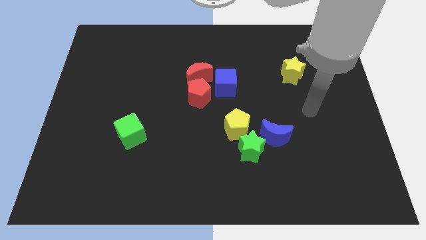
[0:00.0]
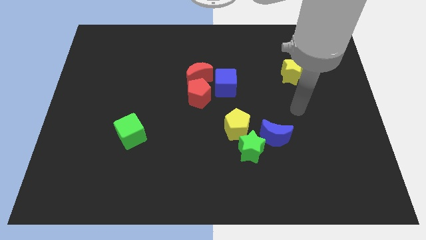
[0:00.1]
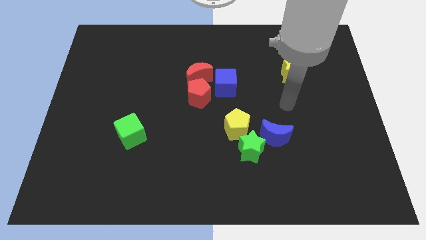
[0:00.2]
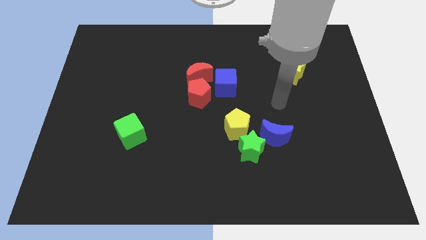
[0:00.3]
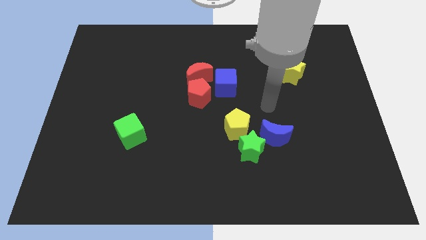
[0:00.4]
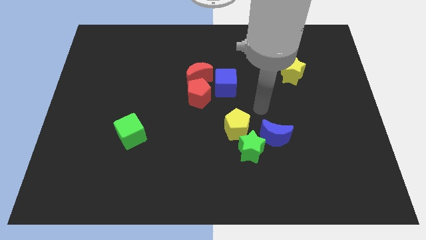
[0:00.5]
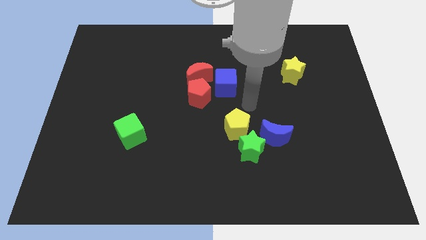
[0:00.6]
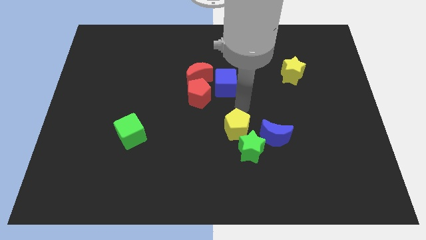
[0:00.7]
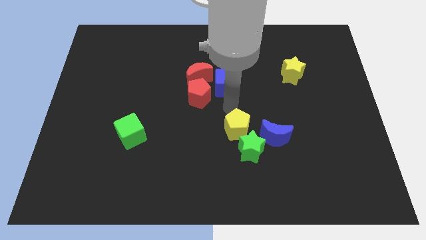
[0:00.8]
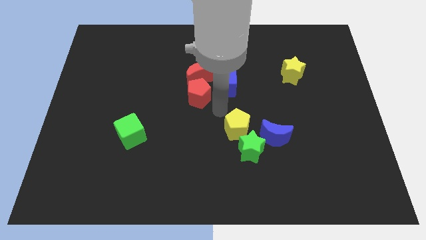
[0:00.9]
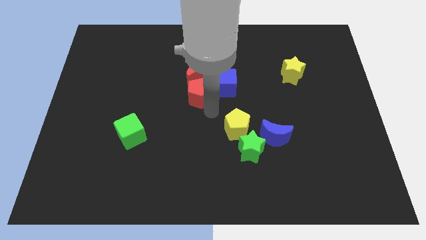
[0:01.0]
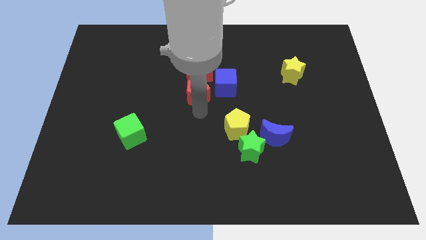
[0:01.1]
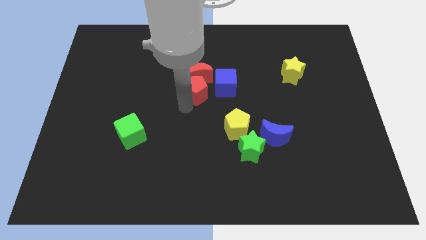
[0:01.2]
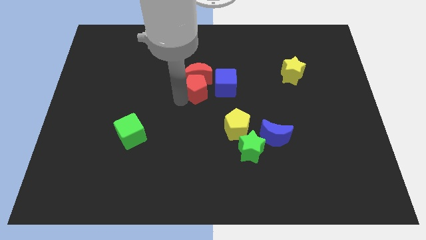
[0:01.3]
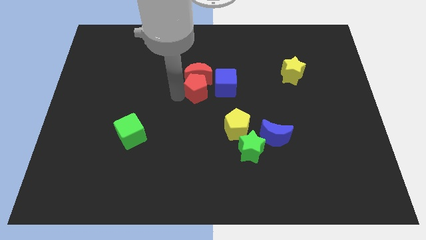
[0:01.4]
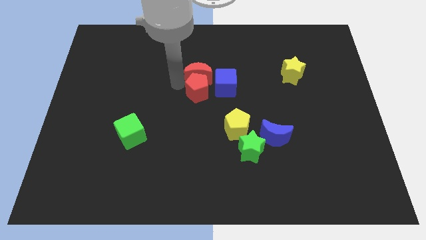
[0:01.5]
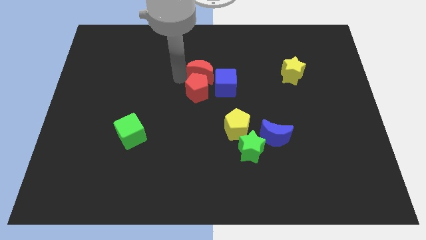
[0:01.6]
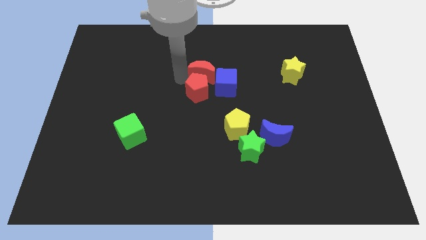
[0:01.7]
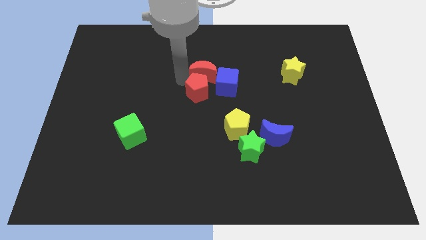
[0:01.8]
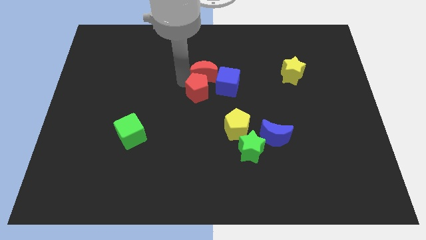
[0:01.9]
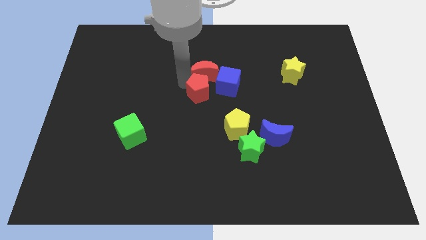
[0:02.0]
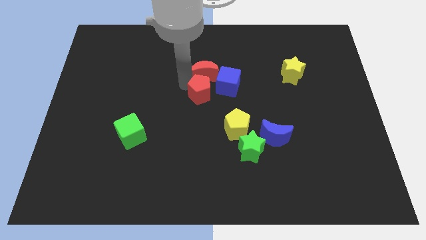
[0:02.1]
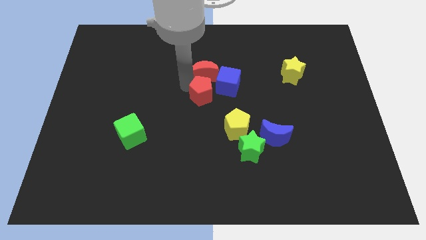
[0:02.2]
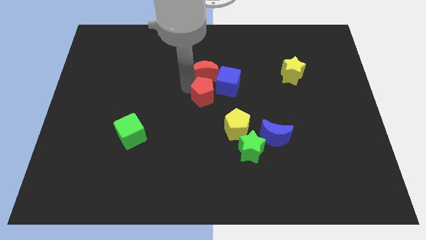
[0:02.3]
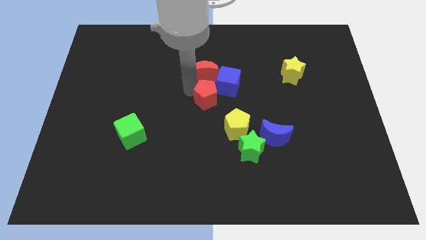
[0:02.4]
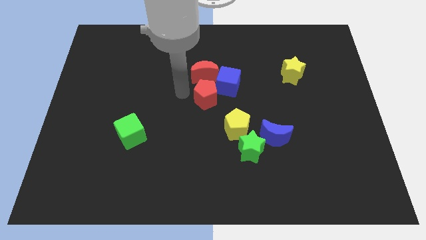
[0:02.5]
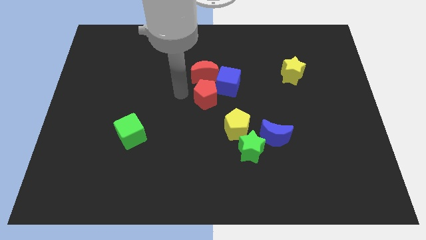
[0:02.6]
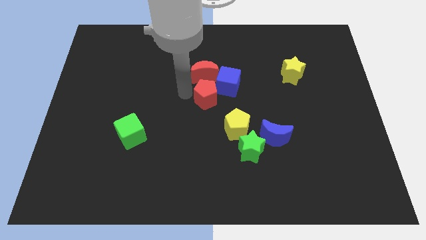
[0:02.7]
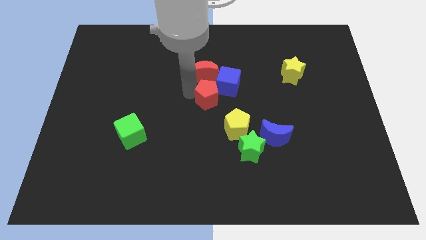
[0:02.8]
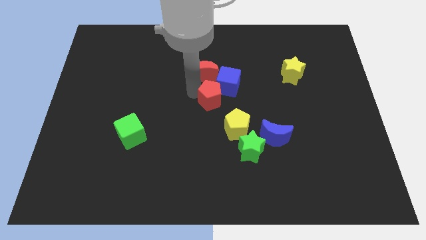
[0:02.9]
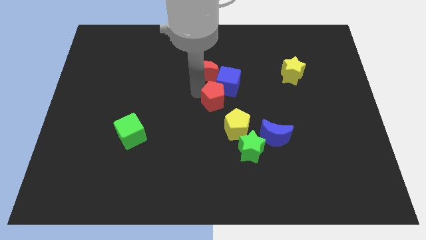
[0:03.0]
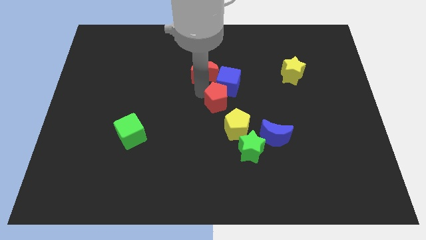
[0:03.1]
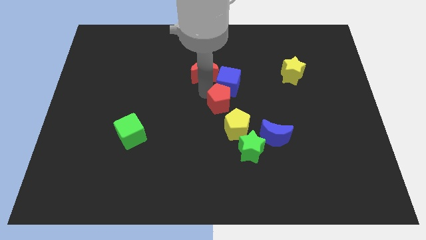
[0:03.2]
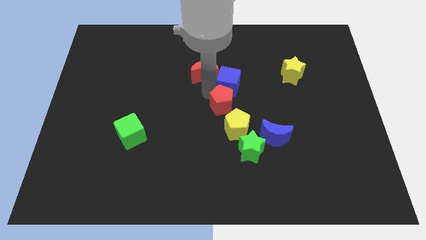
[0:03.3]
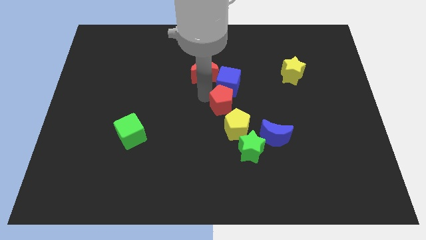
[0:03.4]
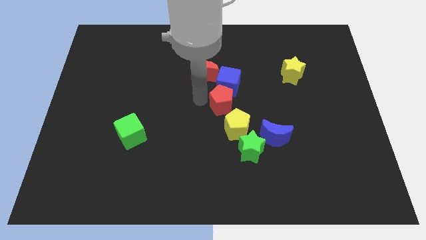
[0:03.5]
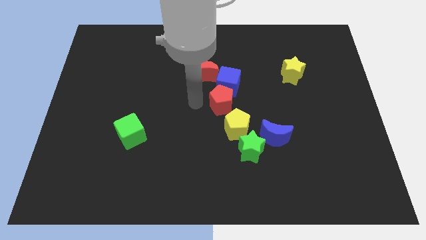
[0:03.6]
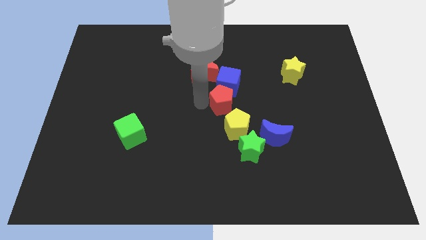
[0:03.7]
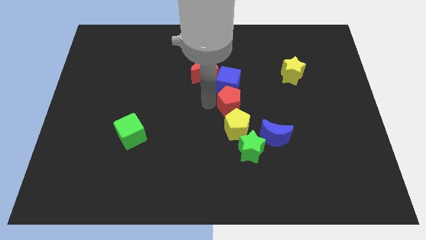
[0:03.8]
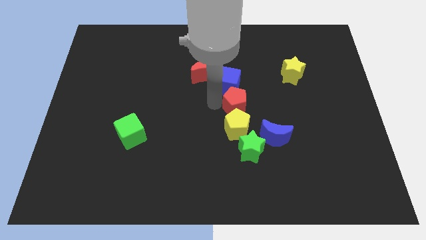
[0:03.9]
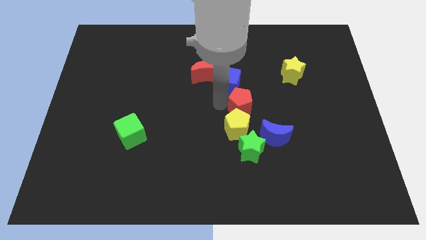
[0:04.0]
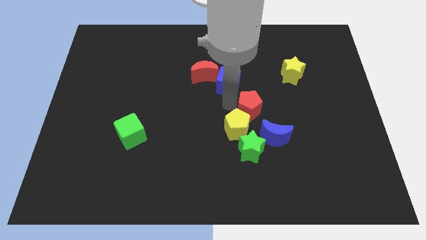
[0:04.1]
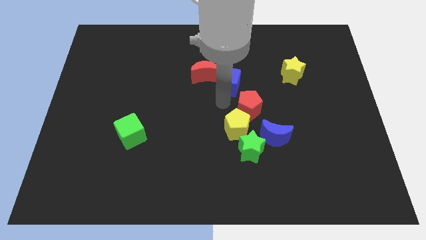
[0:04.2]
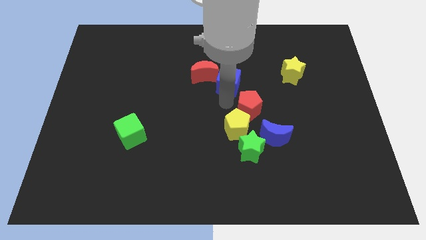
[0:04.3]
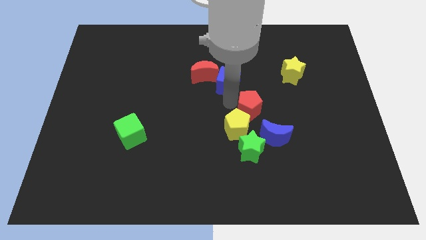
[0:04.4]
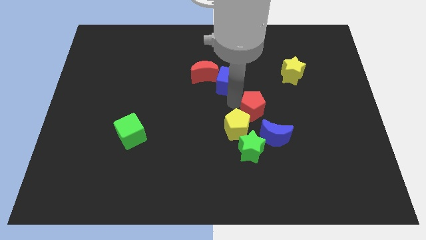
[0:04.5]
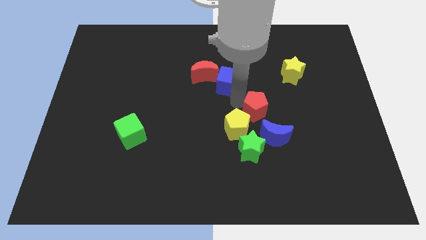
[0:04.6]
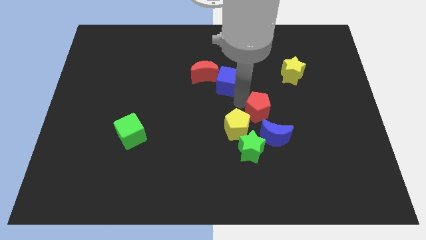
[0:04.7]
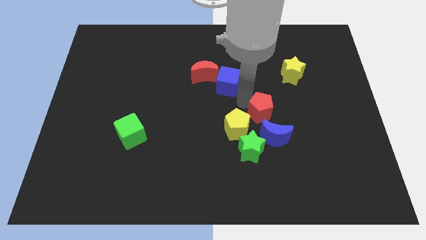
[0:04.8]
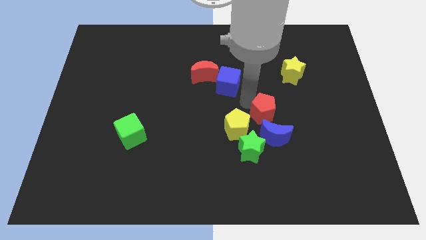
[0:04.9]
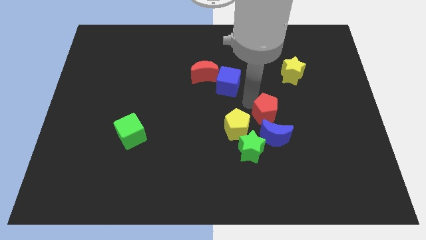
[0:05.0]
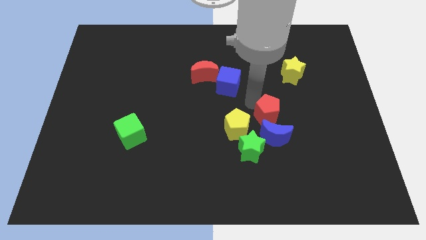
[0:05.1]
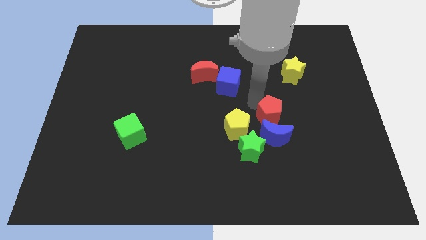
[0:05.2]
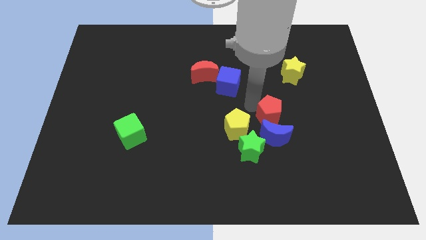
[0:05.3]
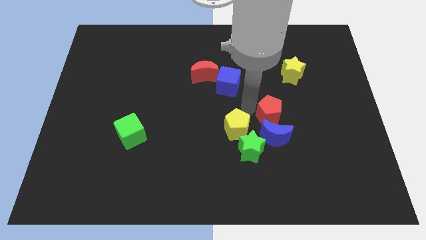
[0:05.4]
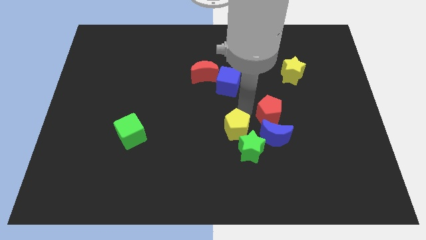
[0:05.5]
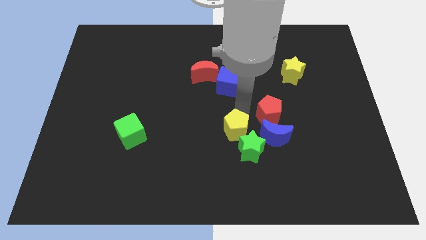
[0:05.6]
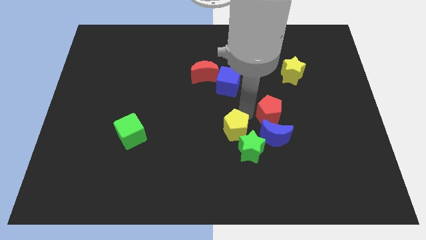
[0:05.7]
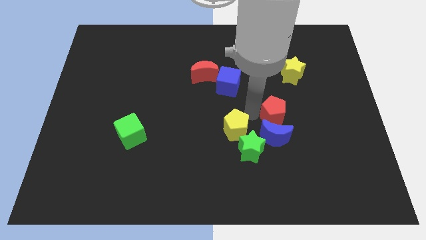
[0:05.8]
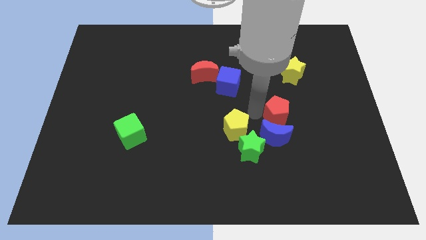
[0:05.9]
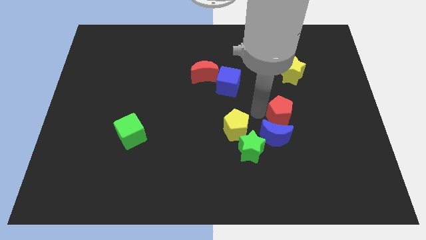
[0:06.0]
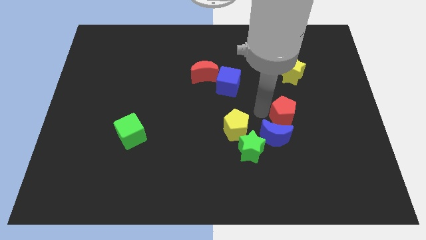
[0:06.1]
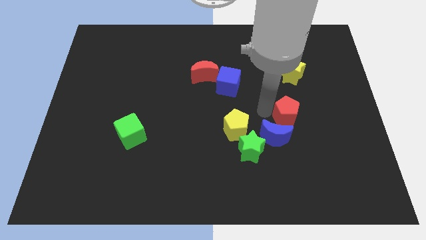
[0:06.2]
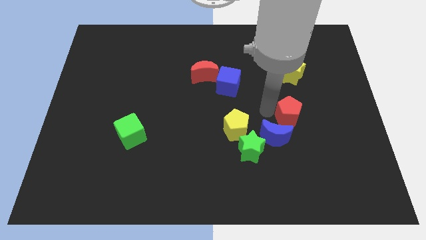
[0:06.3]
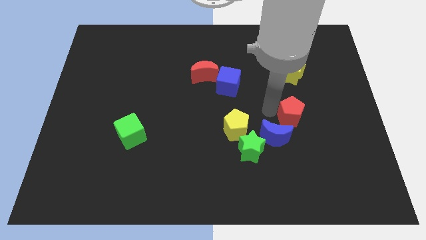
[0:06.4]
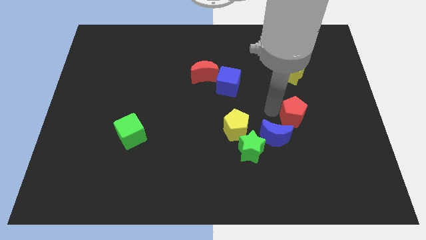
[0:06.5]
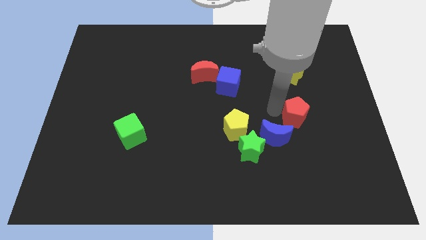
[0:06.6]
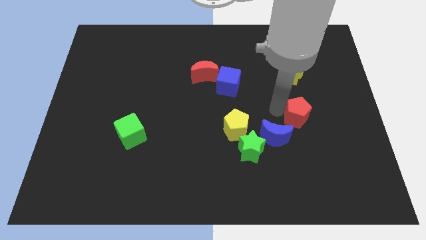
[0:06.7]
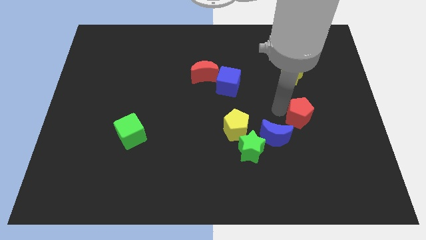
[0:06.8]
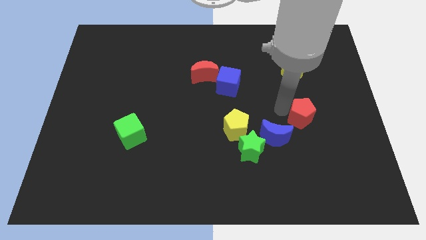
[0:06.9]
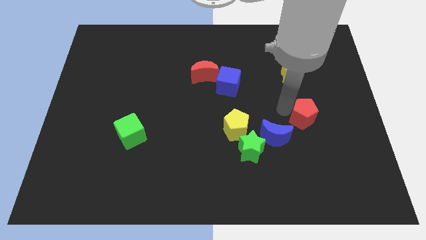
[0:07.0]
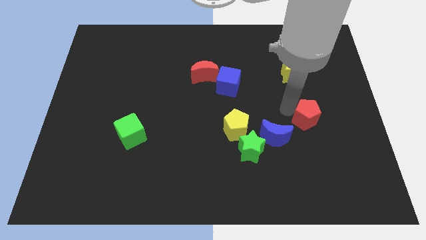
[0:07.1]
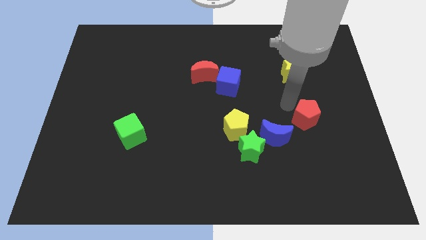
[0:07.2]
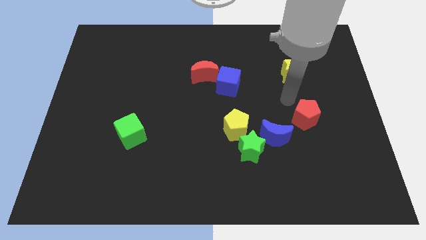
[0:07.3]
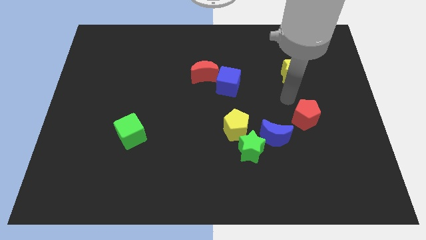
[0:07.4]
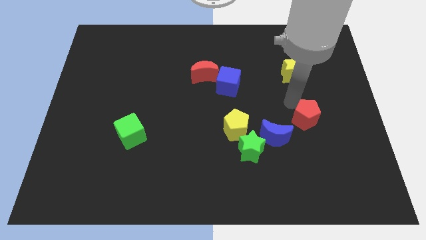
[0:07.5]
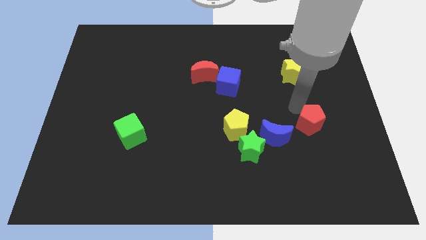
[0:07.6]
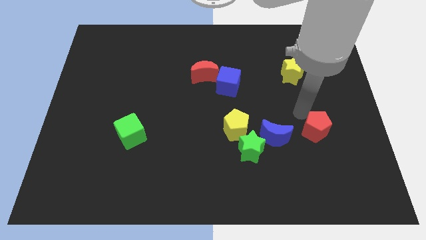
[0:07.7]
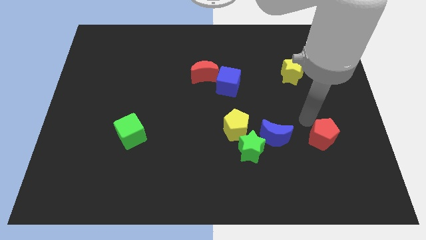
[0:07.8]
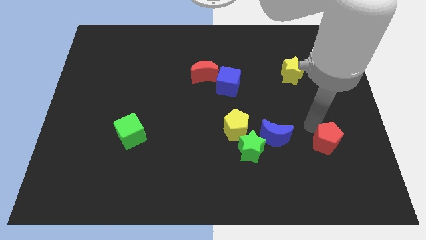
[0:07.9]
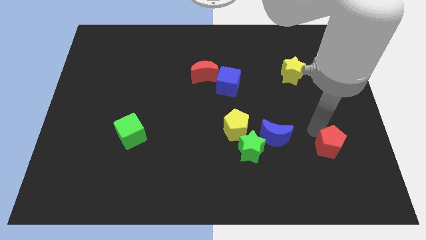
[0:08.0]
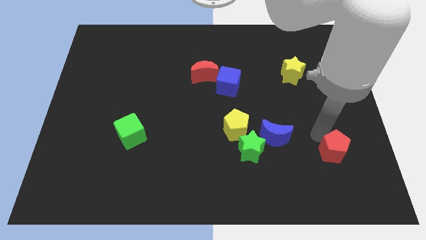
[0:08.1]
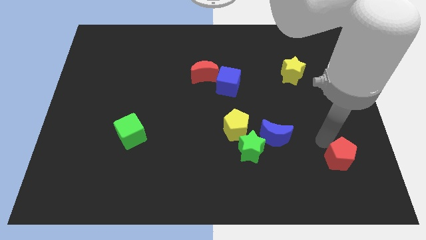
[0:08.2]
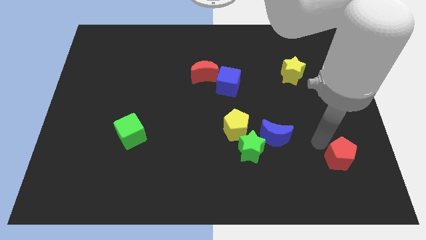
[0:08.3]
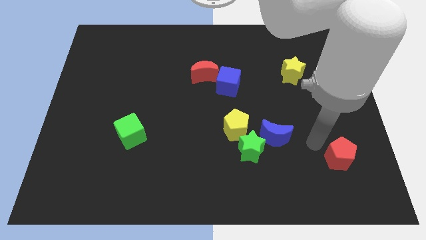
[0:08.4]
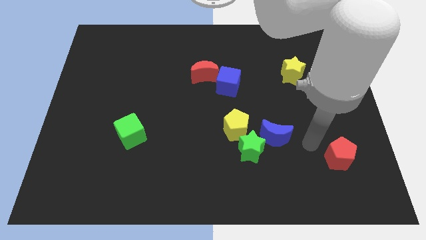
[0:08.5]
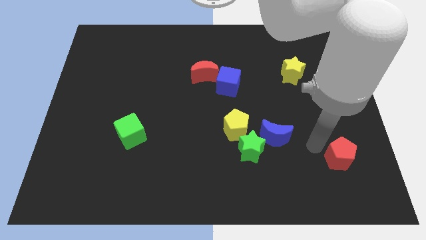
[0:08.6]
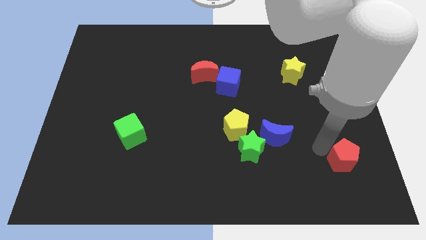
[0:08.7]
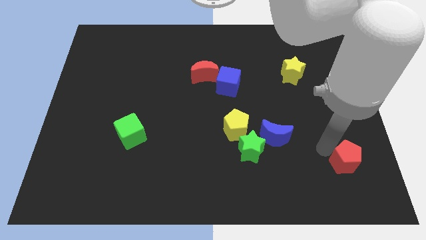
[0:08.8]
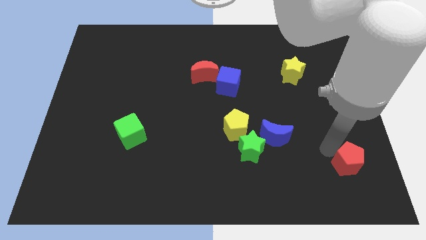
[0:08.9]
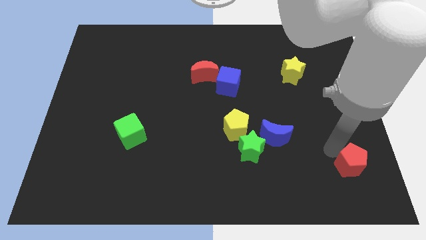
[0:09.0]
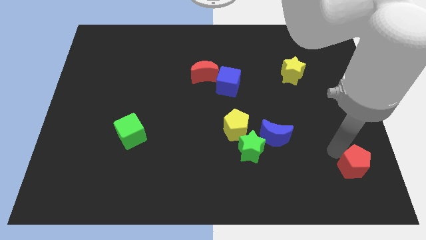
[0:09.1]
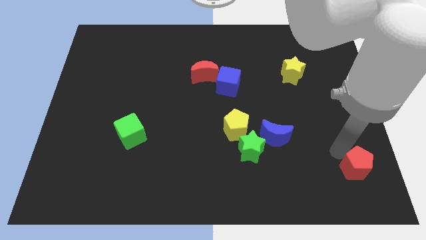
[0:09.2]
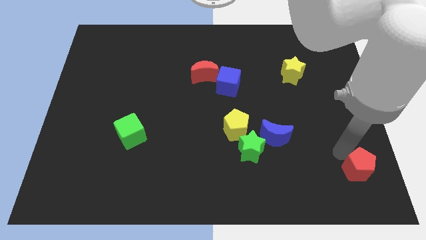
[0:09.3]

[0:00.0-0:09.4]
push the red pentagon to the bottom right of the board
